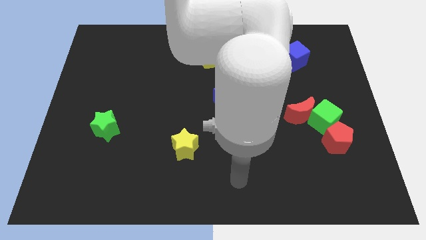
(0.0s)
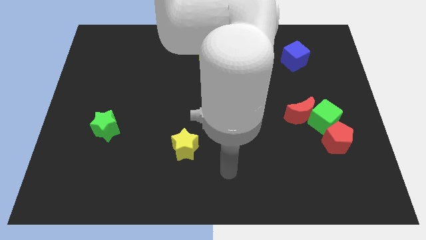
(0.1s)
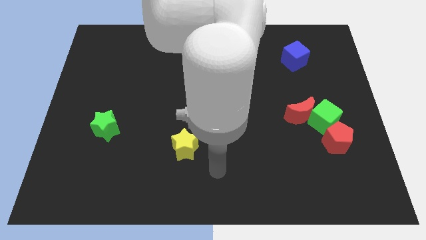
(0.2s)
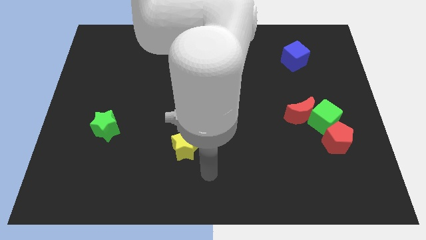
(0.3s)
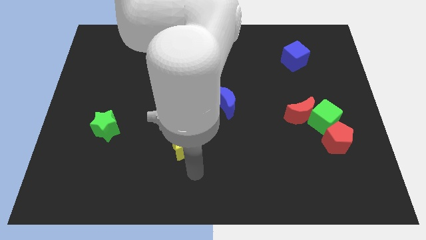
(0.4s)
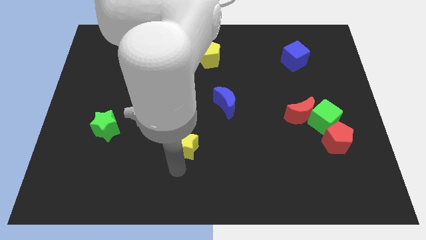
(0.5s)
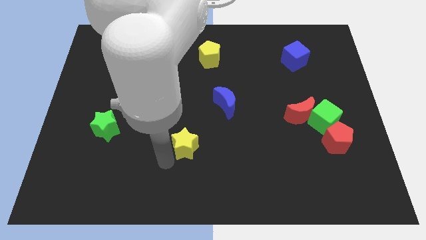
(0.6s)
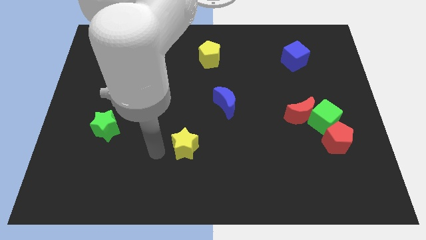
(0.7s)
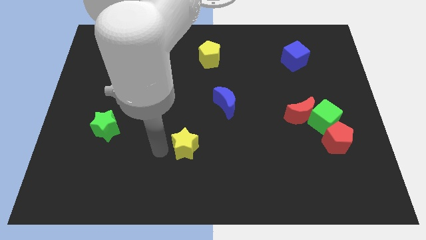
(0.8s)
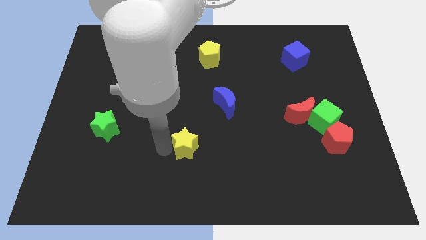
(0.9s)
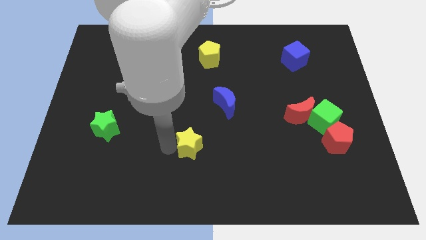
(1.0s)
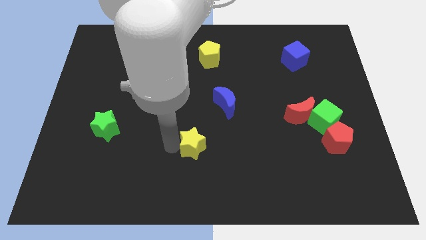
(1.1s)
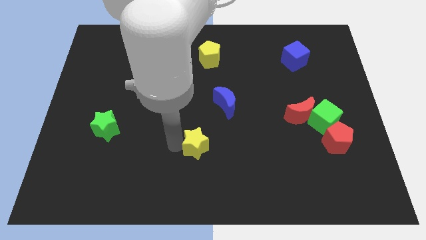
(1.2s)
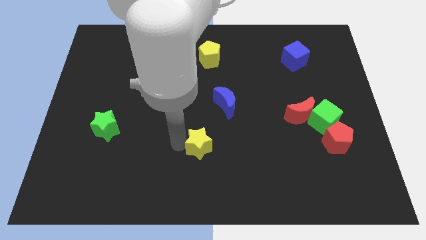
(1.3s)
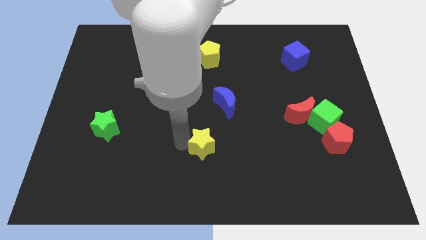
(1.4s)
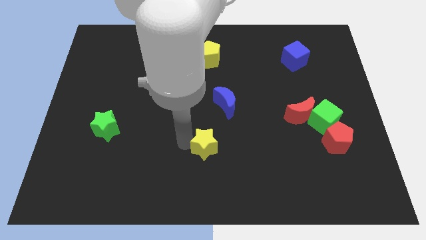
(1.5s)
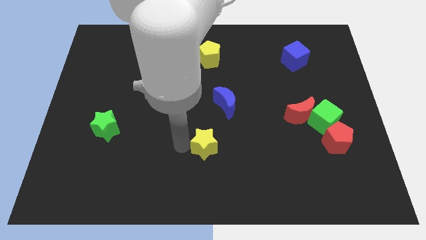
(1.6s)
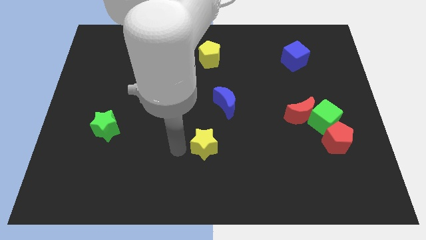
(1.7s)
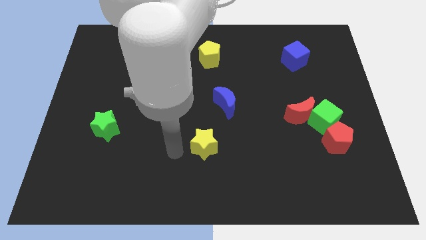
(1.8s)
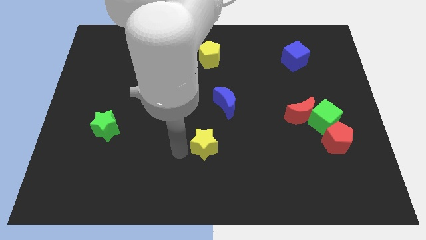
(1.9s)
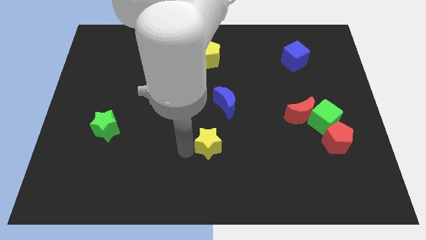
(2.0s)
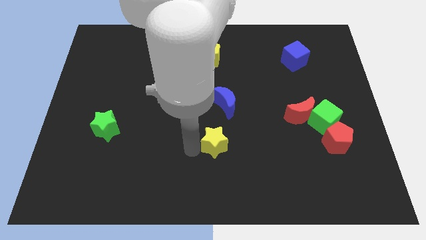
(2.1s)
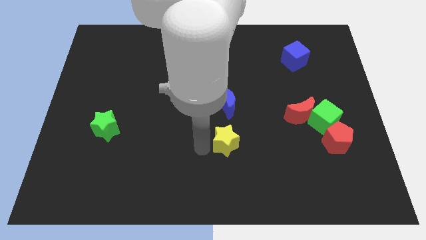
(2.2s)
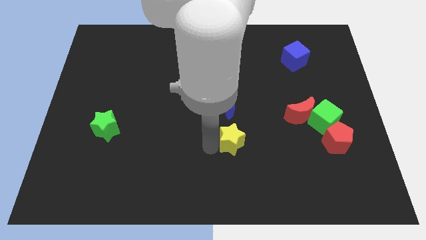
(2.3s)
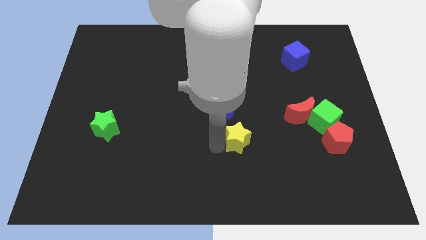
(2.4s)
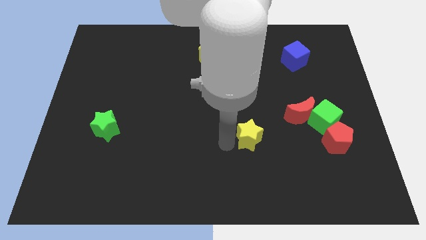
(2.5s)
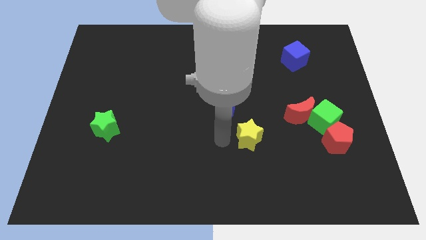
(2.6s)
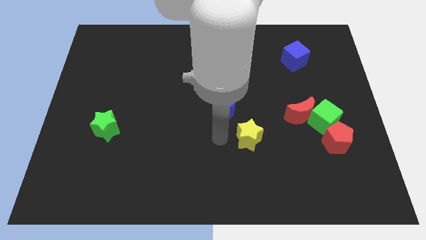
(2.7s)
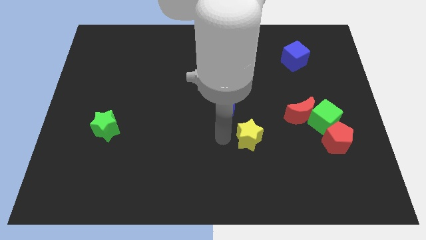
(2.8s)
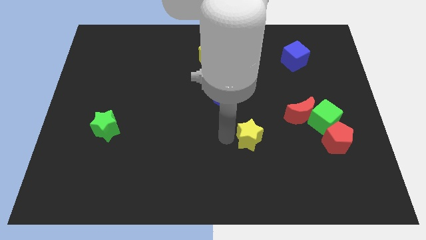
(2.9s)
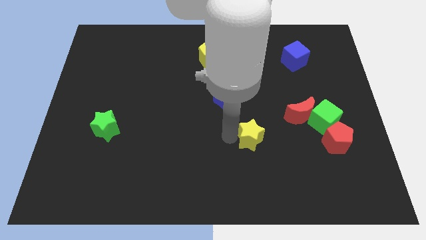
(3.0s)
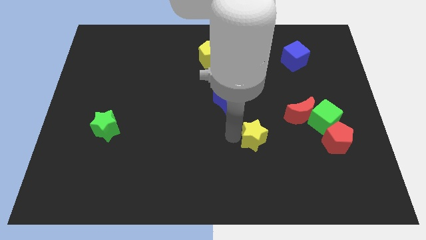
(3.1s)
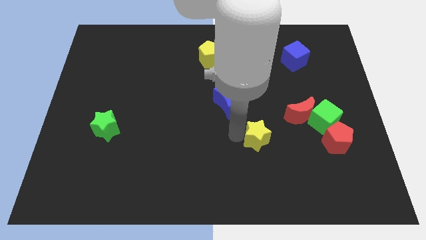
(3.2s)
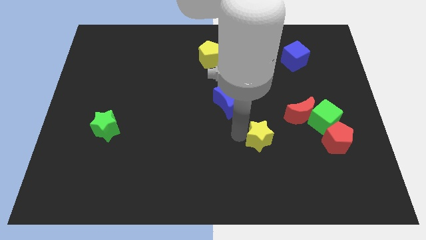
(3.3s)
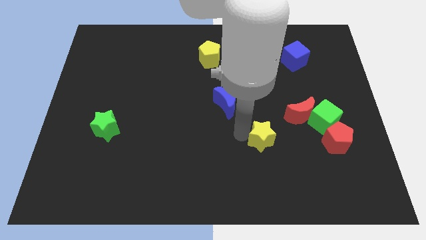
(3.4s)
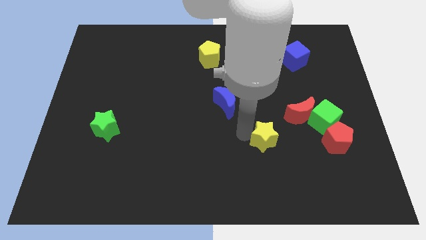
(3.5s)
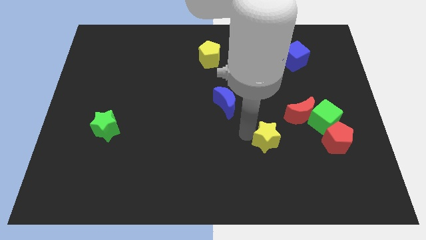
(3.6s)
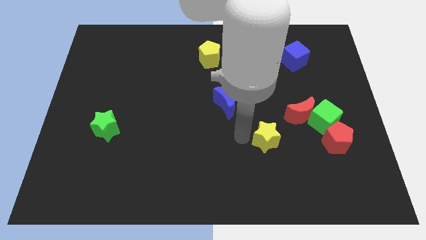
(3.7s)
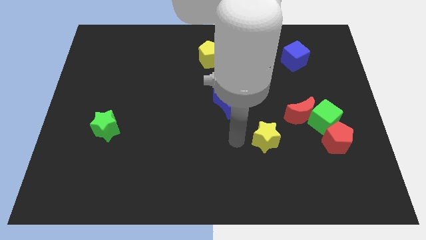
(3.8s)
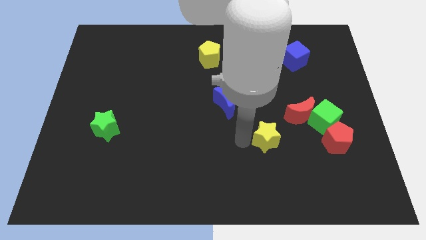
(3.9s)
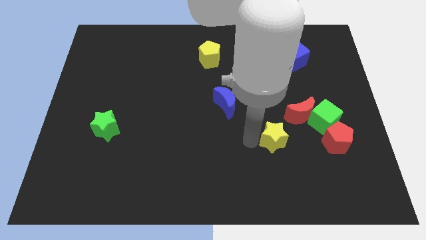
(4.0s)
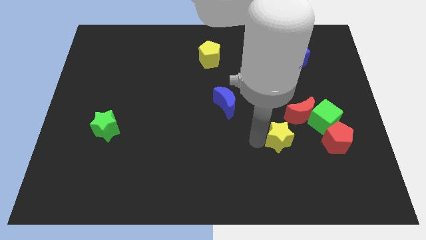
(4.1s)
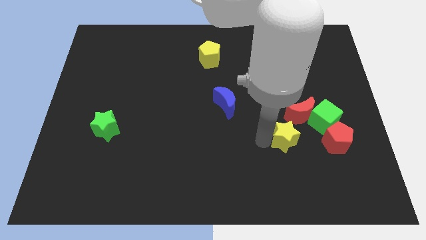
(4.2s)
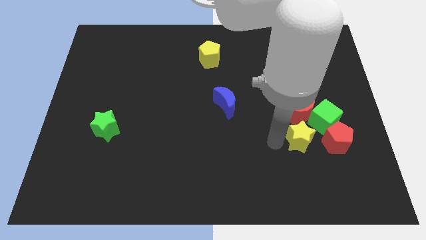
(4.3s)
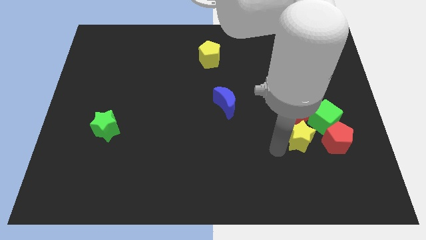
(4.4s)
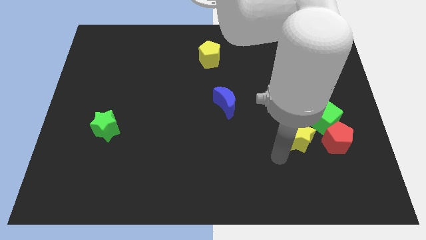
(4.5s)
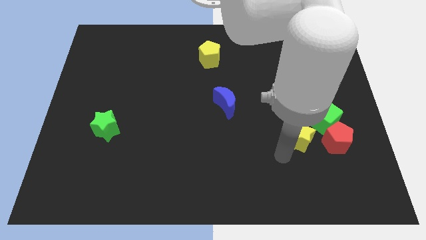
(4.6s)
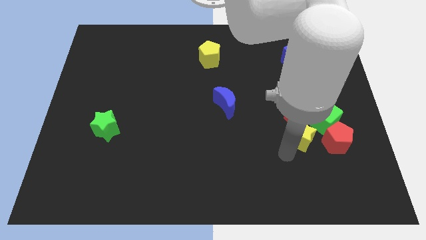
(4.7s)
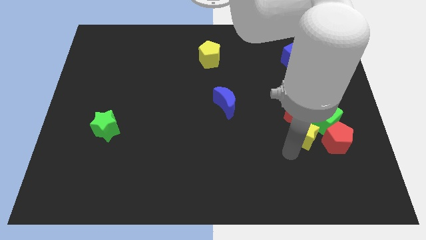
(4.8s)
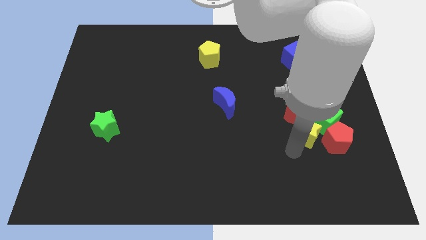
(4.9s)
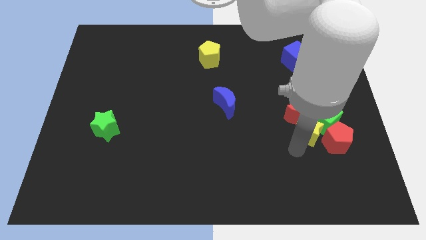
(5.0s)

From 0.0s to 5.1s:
put the yellow star next to the green cube

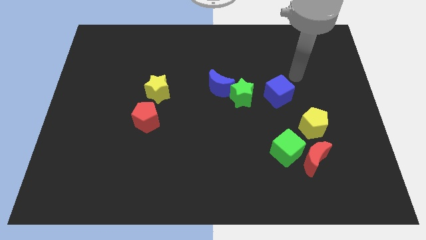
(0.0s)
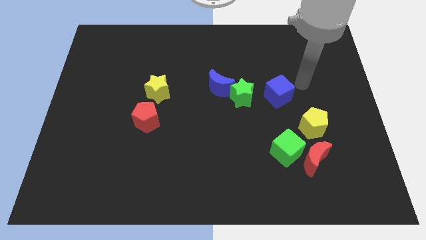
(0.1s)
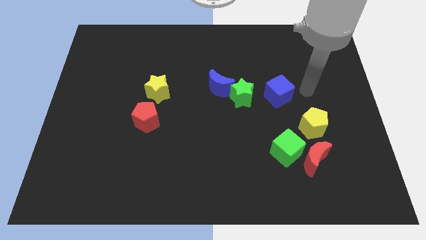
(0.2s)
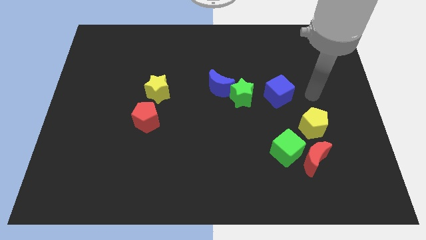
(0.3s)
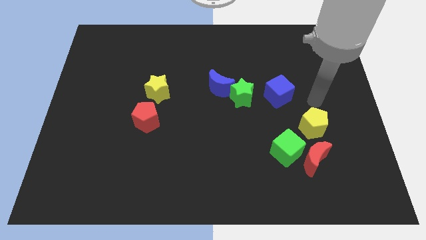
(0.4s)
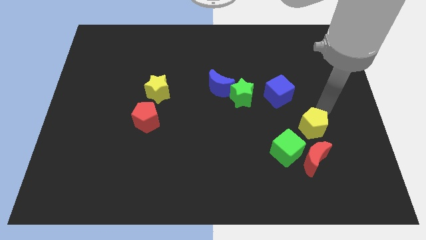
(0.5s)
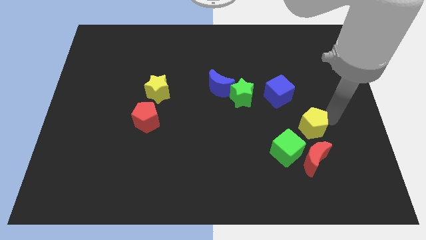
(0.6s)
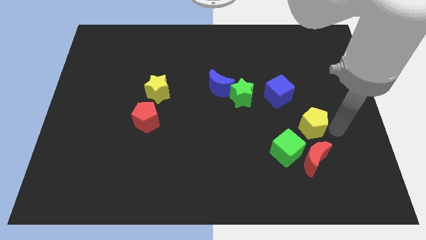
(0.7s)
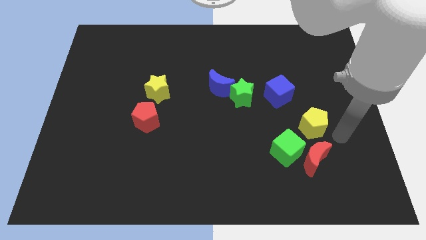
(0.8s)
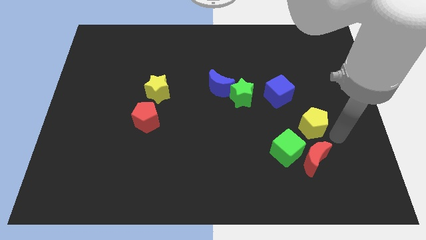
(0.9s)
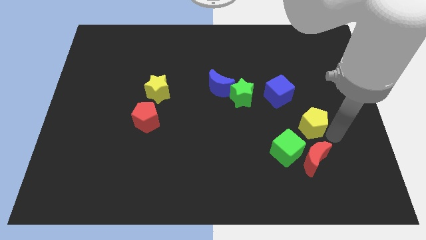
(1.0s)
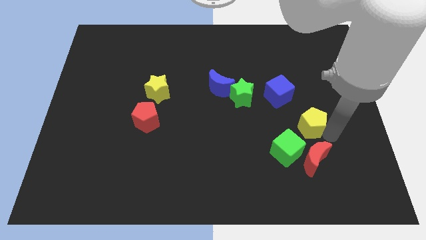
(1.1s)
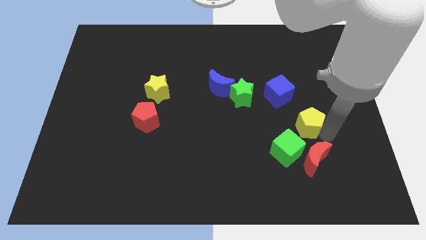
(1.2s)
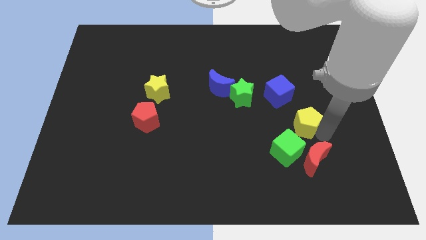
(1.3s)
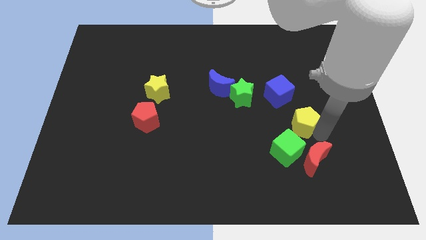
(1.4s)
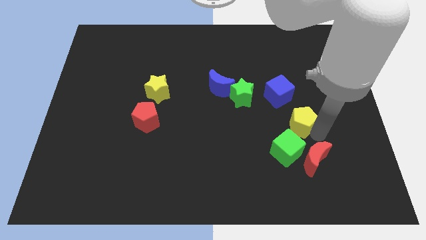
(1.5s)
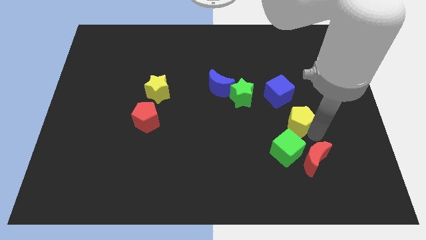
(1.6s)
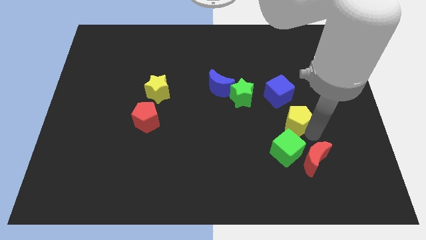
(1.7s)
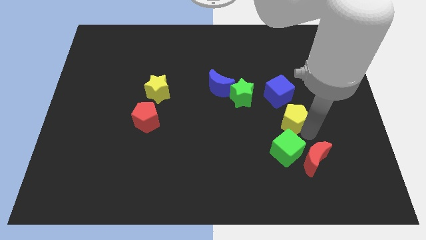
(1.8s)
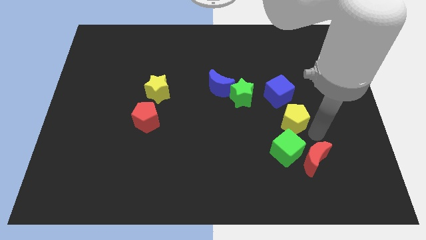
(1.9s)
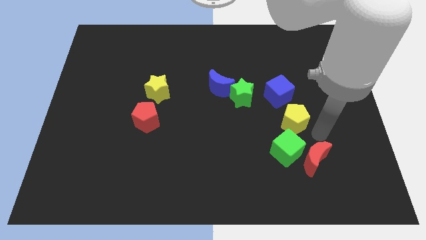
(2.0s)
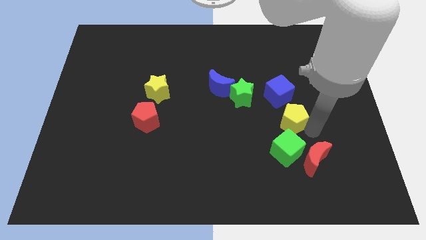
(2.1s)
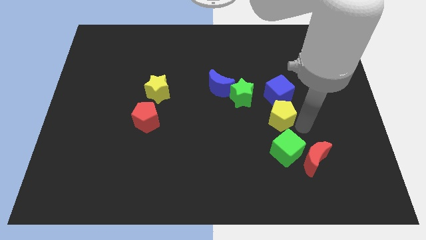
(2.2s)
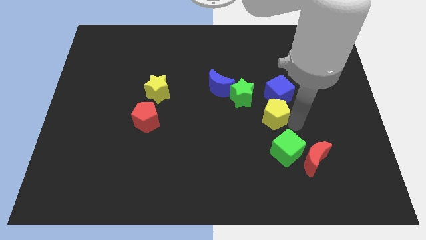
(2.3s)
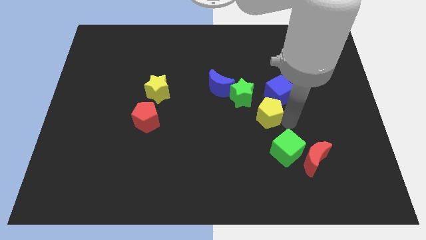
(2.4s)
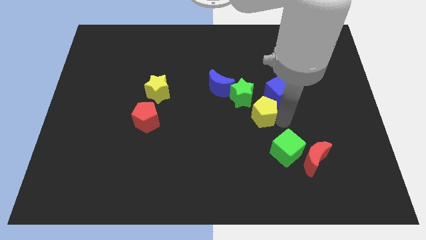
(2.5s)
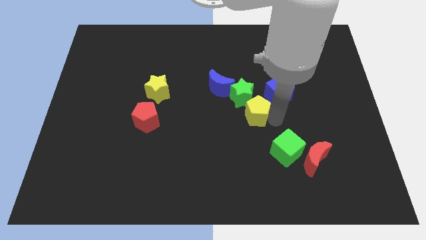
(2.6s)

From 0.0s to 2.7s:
slide the yellow pentagon to the green star

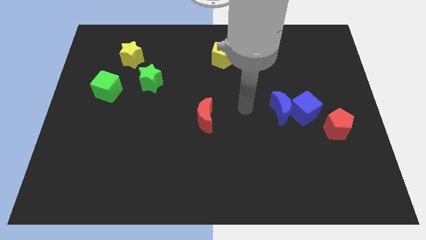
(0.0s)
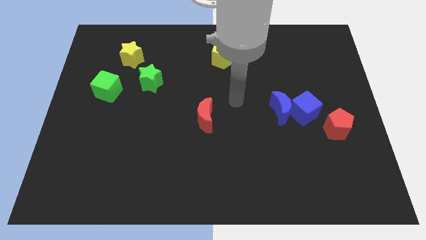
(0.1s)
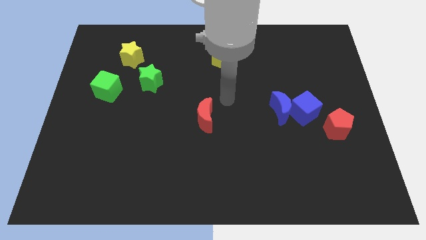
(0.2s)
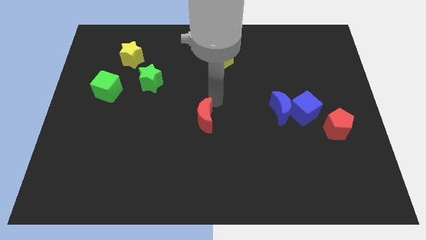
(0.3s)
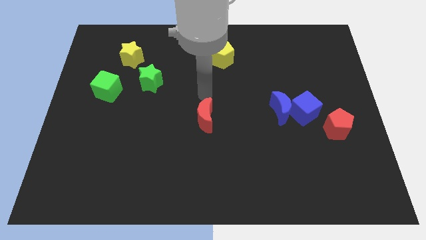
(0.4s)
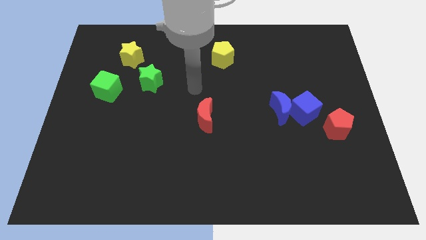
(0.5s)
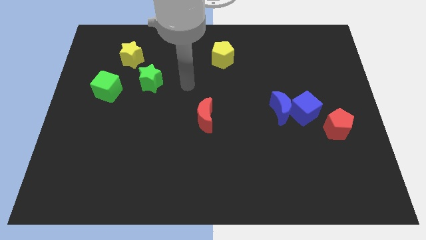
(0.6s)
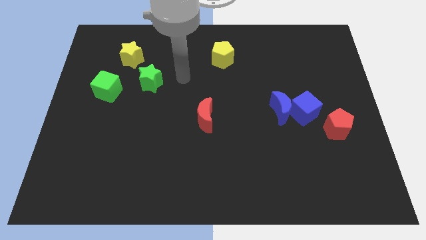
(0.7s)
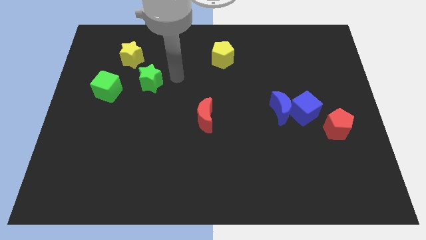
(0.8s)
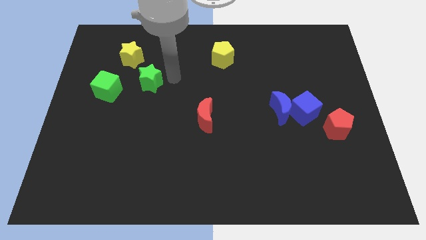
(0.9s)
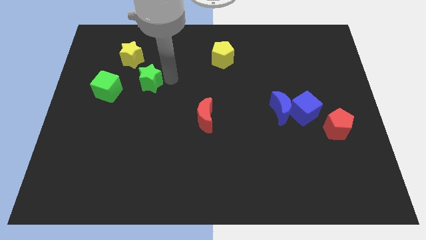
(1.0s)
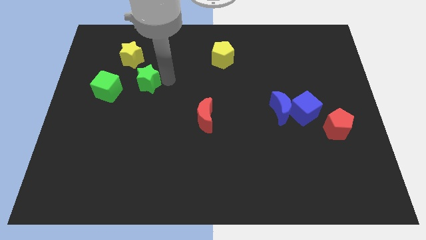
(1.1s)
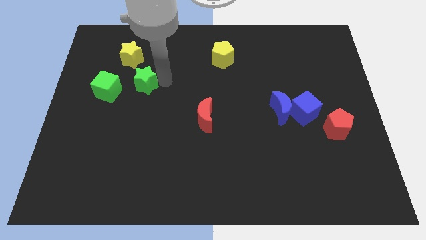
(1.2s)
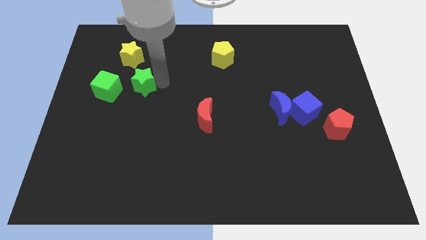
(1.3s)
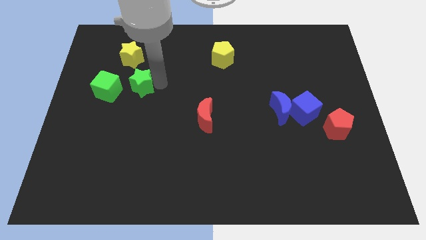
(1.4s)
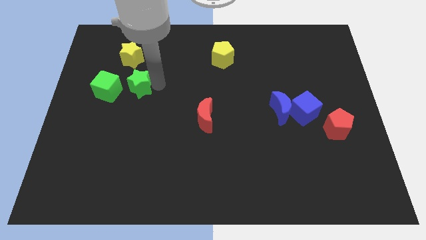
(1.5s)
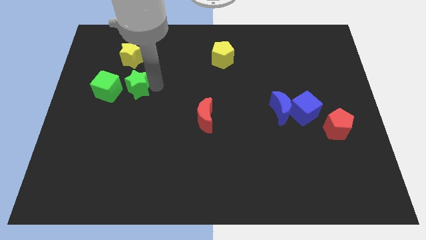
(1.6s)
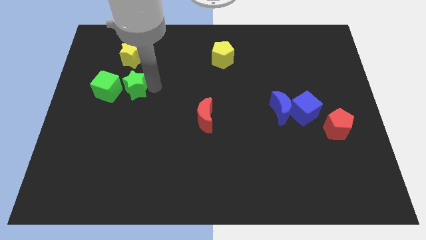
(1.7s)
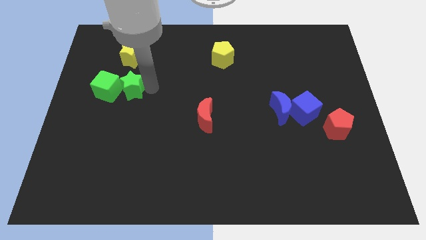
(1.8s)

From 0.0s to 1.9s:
put the green star to the green cube
